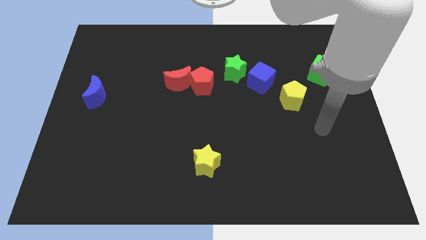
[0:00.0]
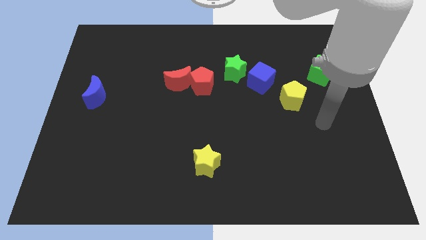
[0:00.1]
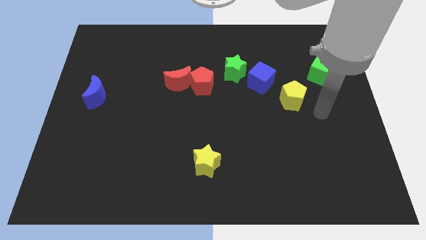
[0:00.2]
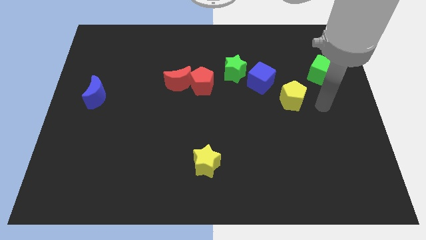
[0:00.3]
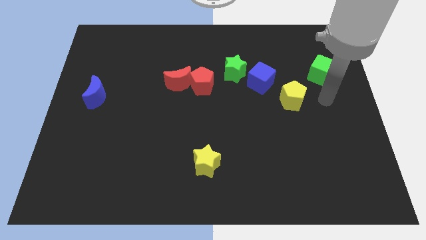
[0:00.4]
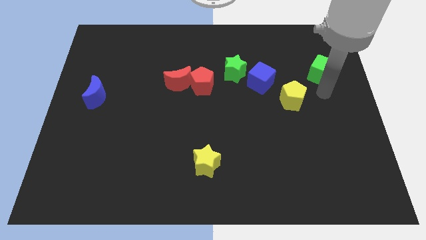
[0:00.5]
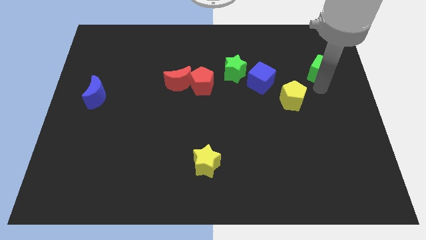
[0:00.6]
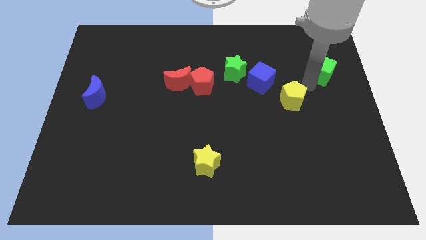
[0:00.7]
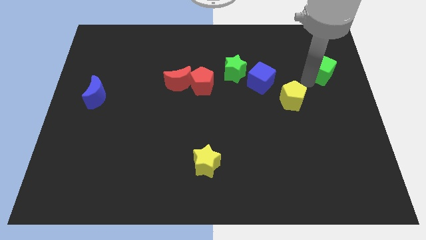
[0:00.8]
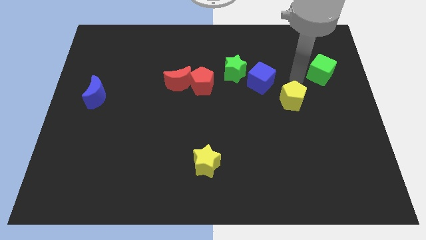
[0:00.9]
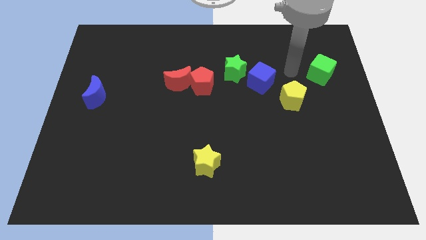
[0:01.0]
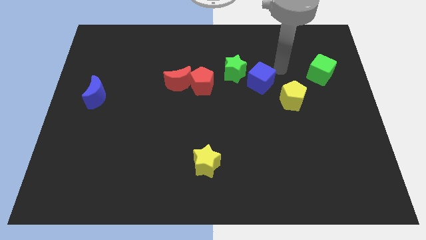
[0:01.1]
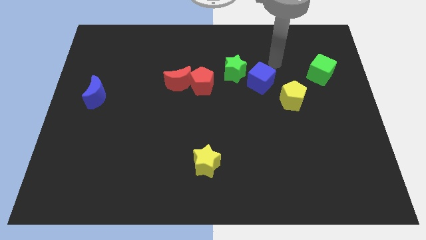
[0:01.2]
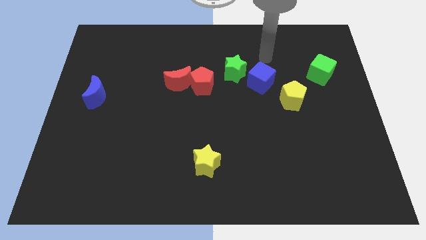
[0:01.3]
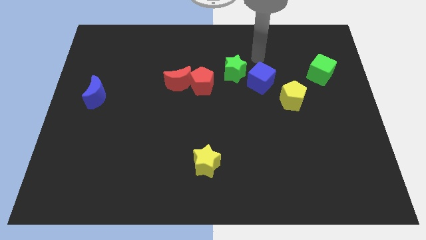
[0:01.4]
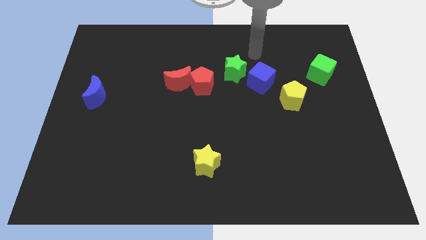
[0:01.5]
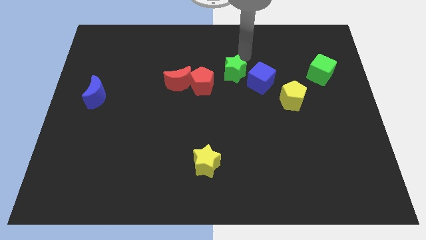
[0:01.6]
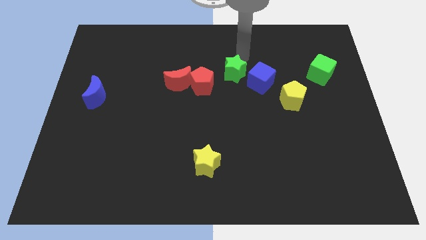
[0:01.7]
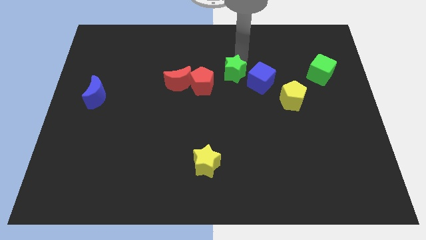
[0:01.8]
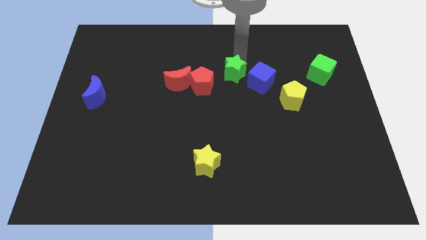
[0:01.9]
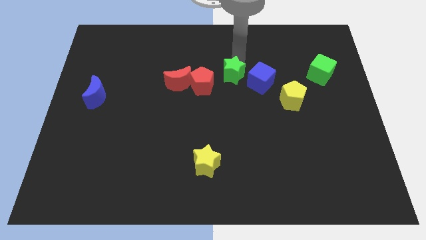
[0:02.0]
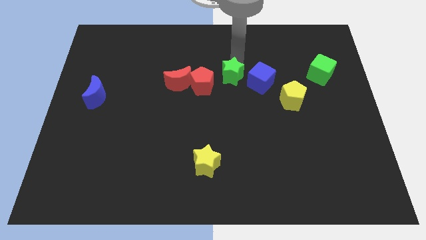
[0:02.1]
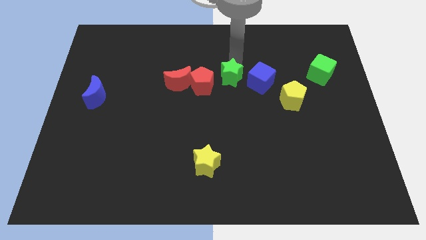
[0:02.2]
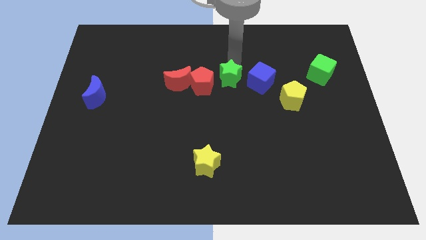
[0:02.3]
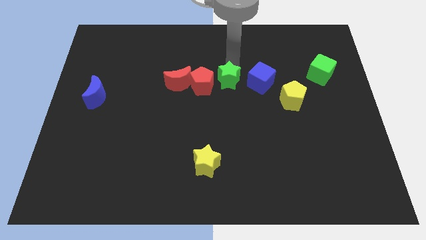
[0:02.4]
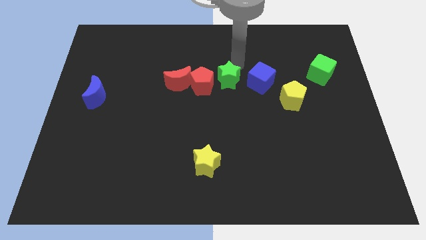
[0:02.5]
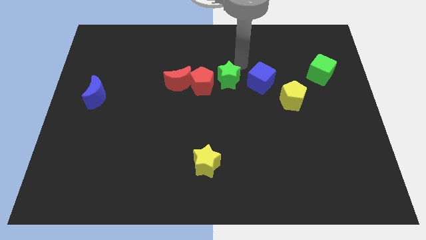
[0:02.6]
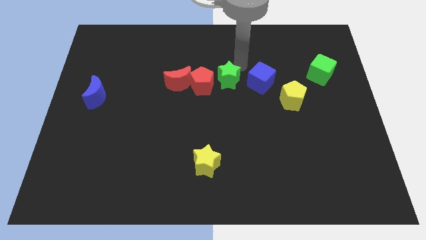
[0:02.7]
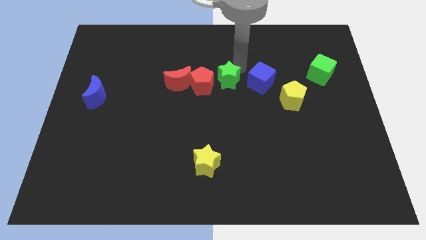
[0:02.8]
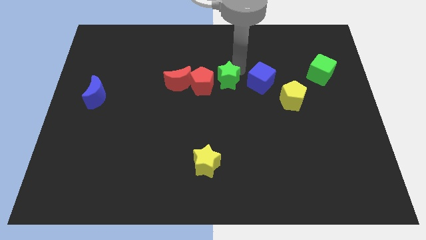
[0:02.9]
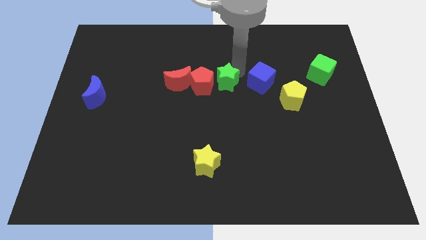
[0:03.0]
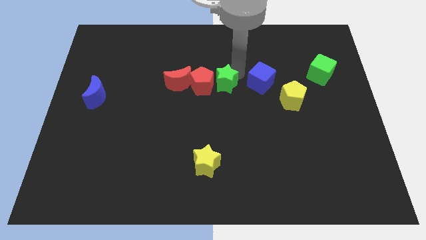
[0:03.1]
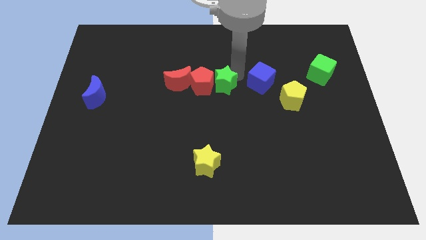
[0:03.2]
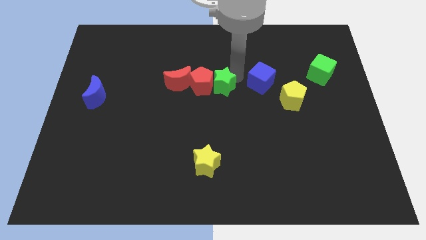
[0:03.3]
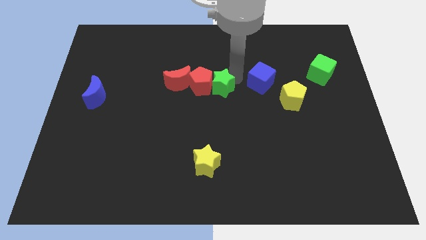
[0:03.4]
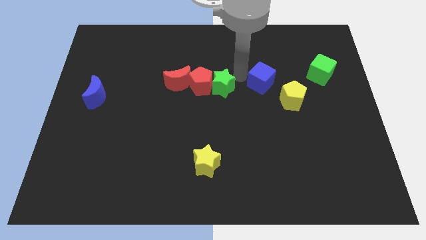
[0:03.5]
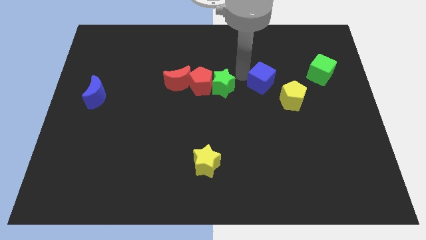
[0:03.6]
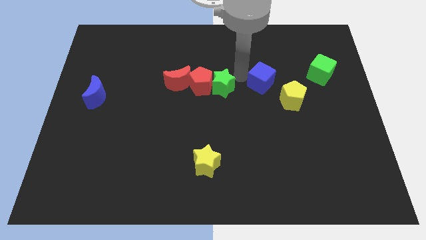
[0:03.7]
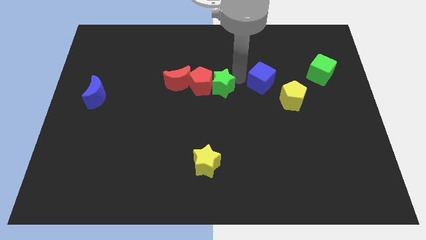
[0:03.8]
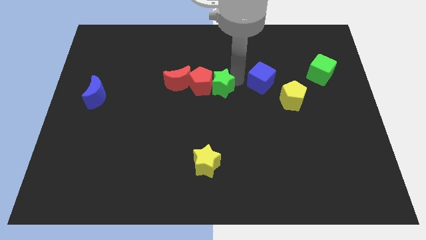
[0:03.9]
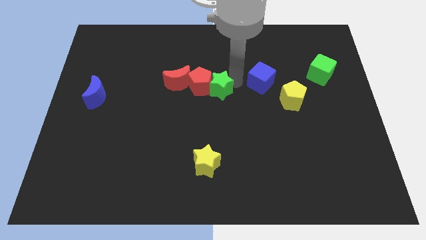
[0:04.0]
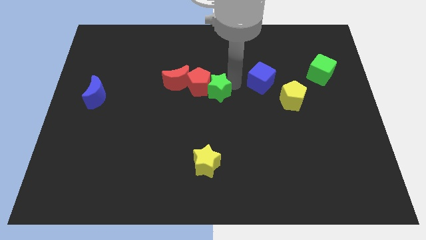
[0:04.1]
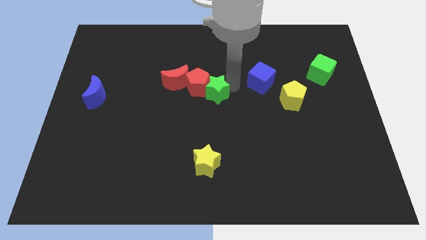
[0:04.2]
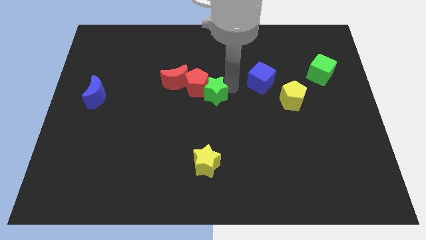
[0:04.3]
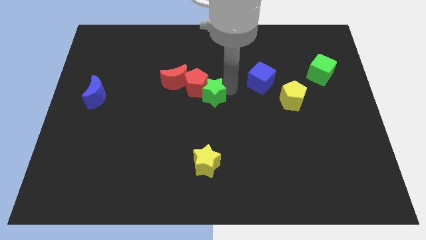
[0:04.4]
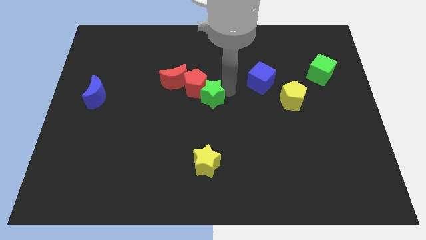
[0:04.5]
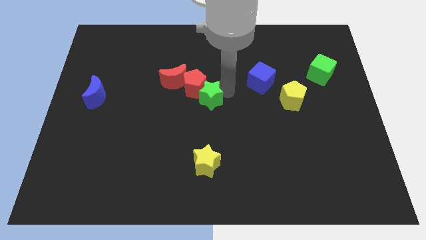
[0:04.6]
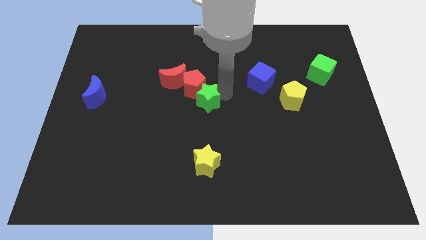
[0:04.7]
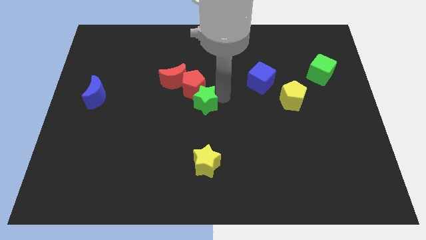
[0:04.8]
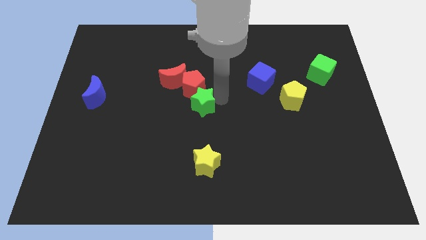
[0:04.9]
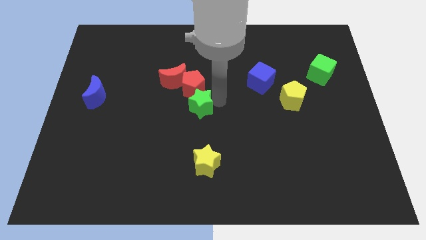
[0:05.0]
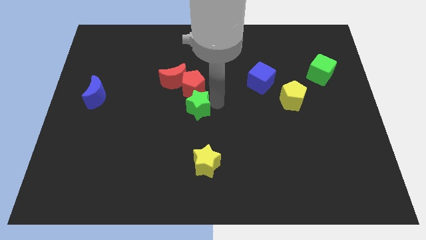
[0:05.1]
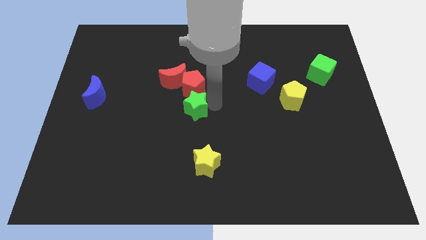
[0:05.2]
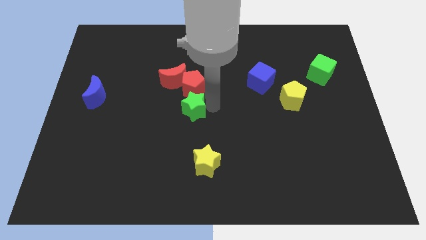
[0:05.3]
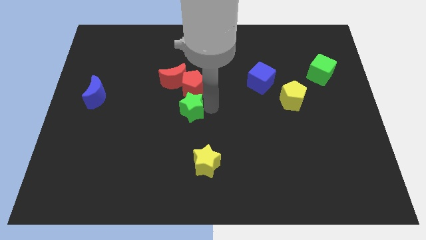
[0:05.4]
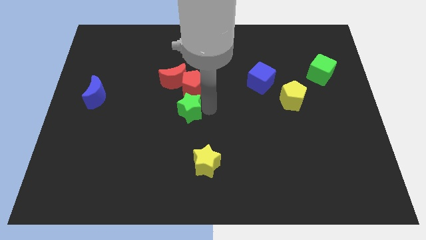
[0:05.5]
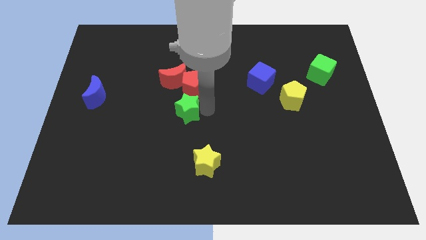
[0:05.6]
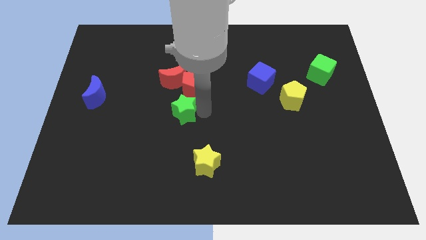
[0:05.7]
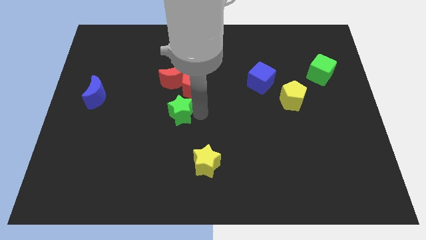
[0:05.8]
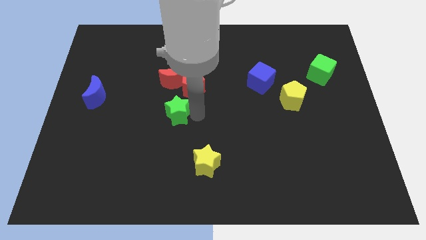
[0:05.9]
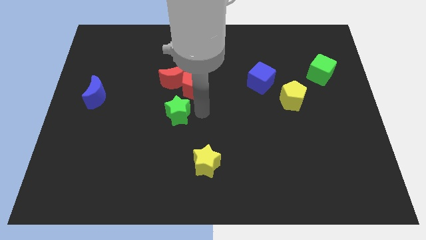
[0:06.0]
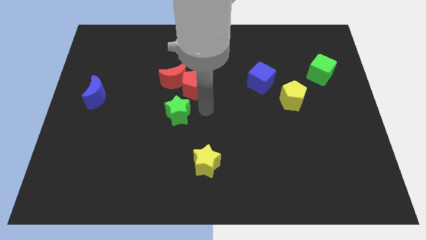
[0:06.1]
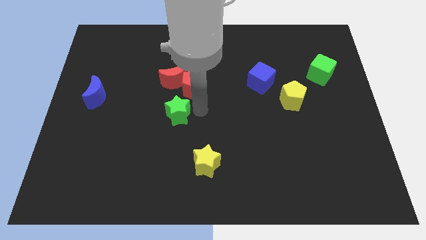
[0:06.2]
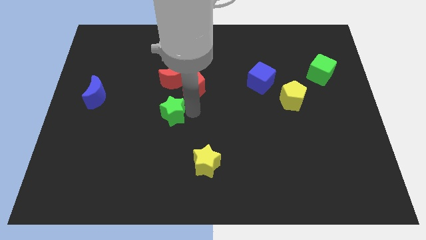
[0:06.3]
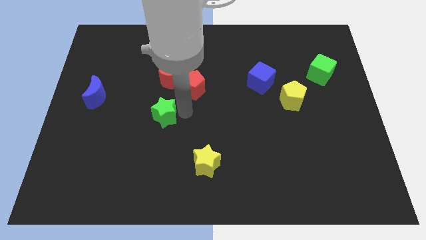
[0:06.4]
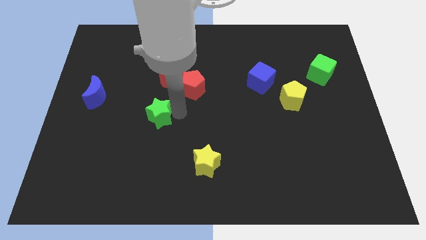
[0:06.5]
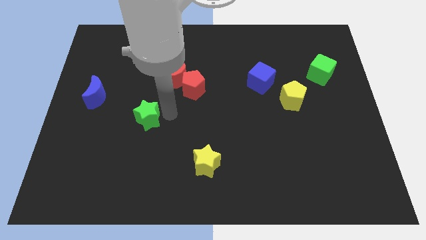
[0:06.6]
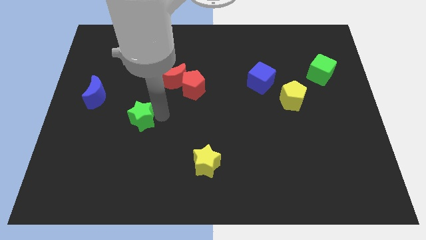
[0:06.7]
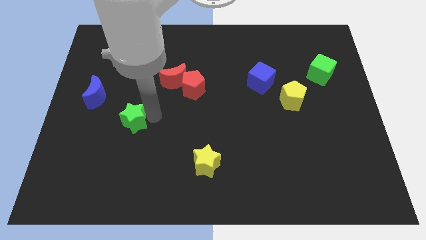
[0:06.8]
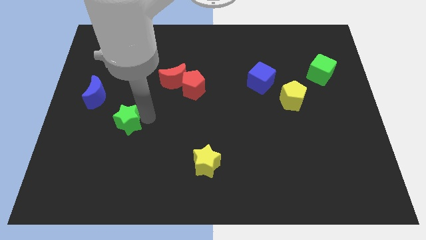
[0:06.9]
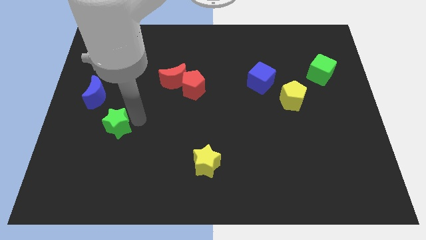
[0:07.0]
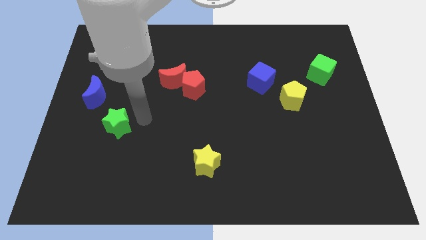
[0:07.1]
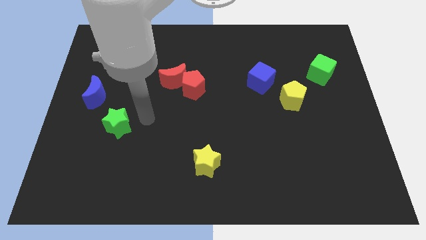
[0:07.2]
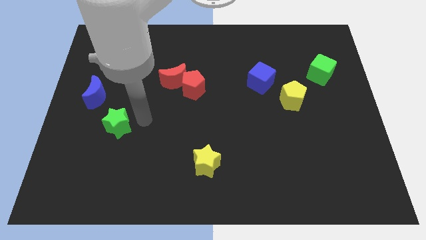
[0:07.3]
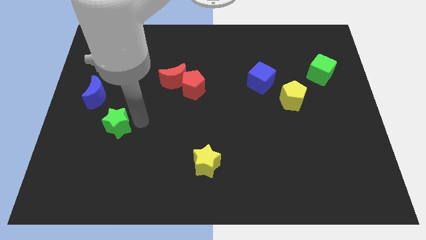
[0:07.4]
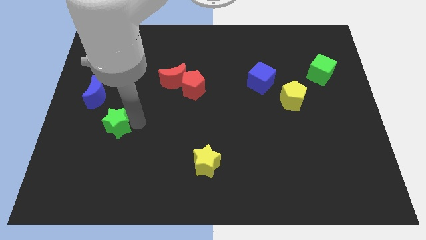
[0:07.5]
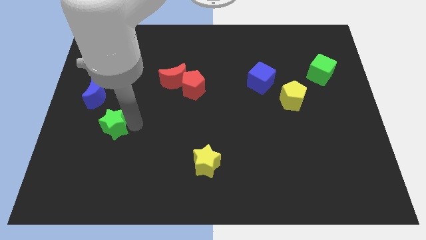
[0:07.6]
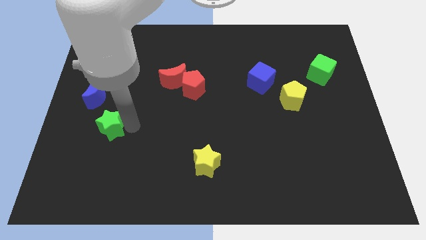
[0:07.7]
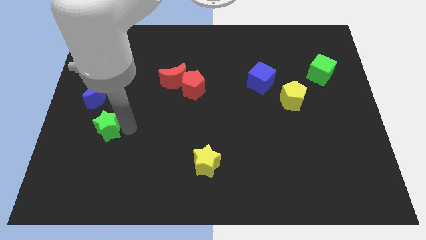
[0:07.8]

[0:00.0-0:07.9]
move the green star to the bottom side of the blue moon
